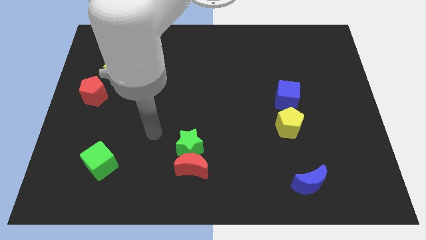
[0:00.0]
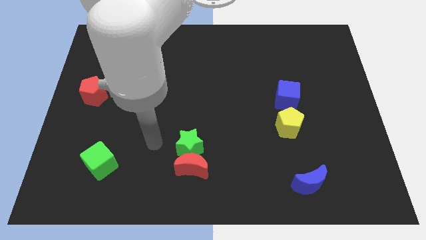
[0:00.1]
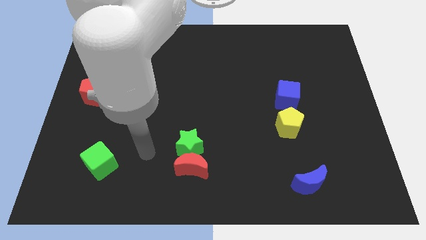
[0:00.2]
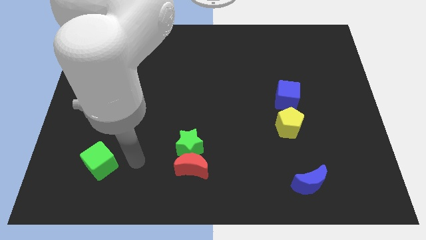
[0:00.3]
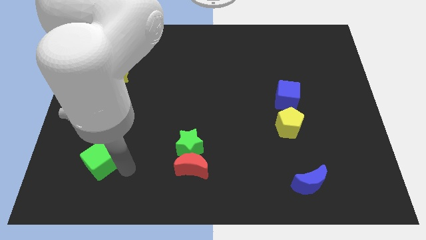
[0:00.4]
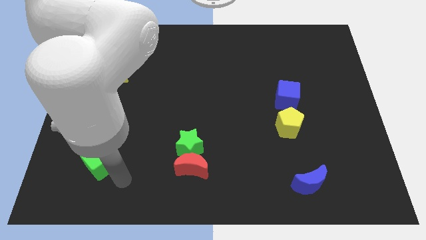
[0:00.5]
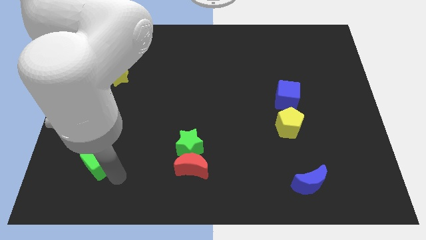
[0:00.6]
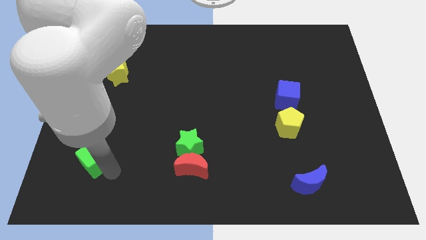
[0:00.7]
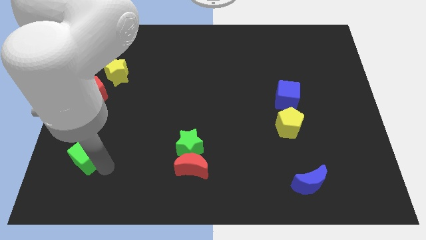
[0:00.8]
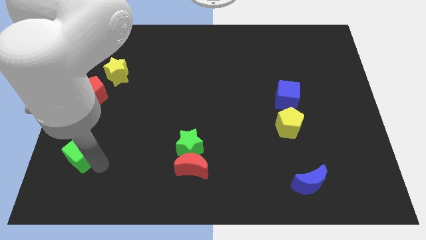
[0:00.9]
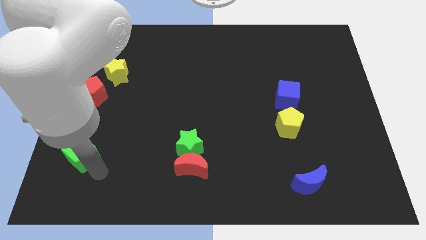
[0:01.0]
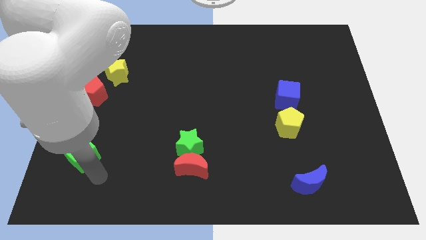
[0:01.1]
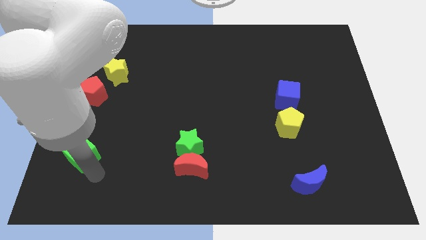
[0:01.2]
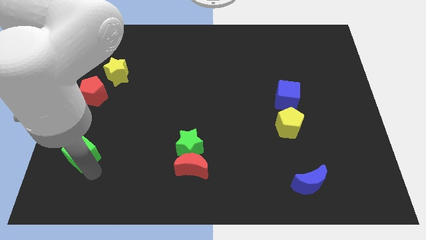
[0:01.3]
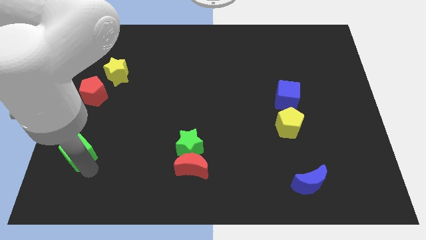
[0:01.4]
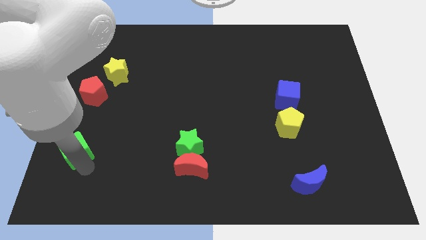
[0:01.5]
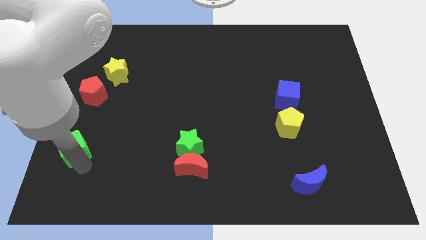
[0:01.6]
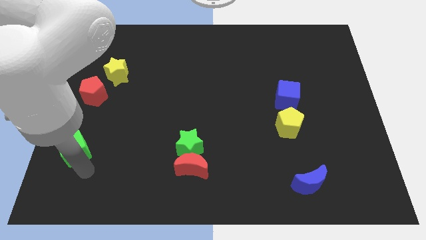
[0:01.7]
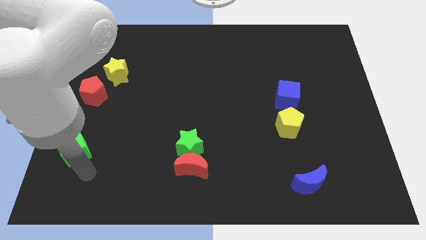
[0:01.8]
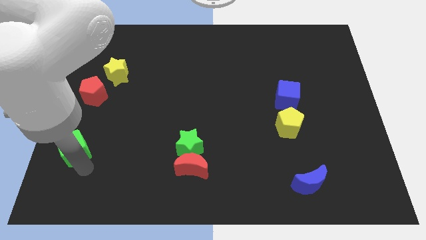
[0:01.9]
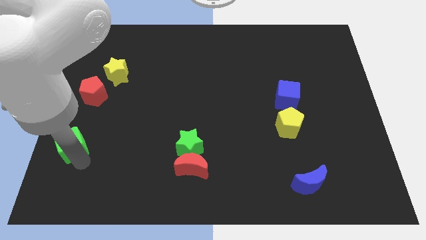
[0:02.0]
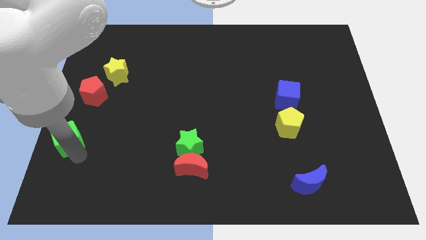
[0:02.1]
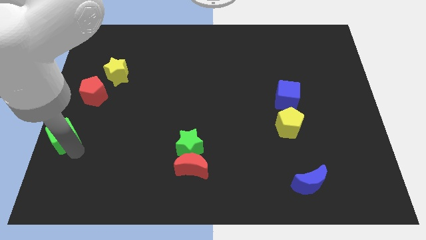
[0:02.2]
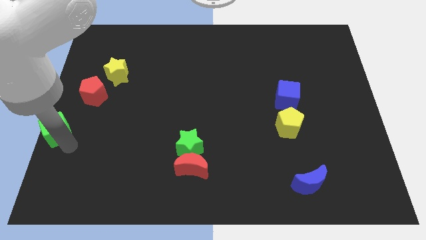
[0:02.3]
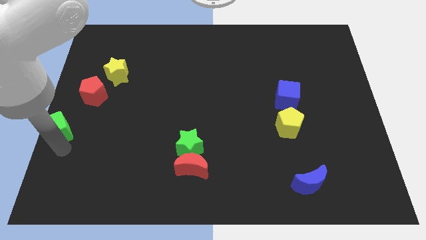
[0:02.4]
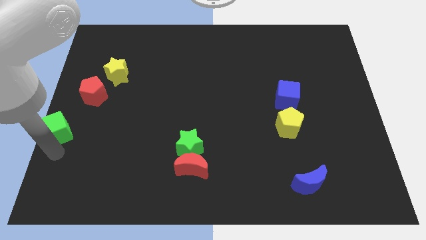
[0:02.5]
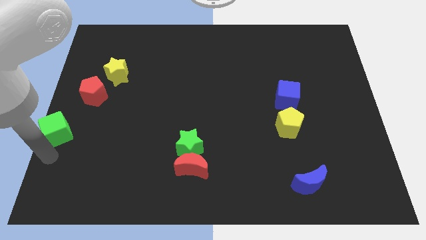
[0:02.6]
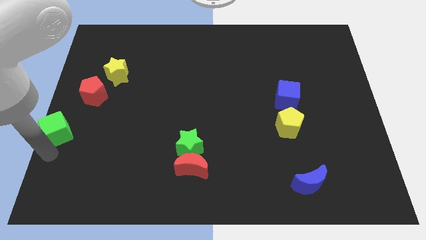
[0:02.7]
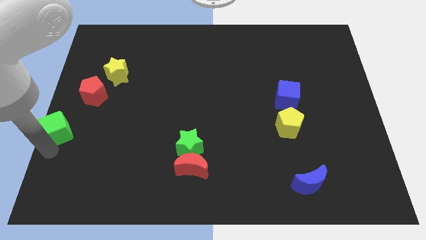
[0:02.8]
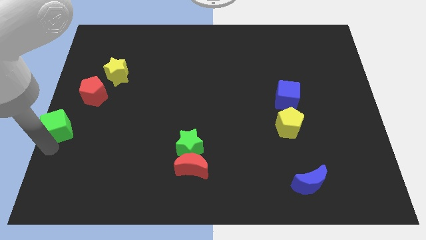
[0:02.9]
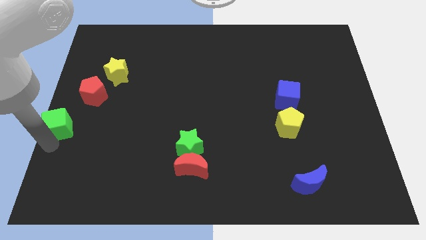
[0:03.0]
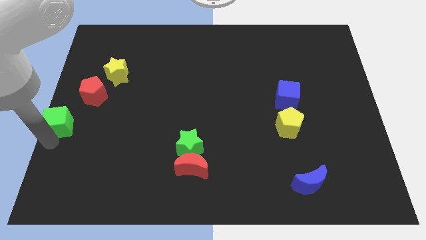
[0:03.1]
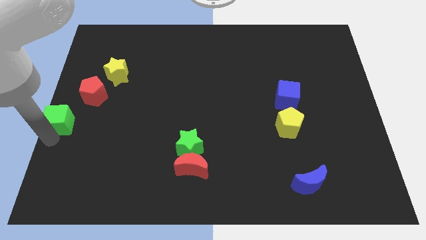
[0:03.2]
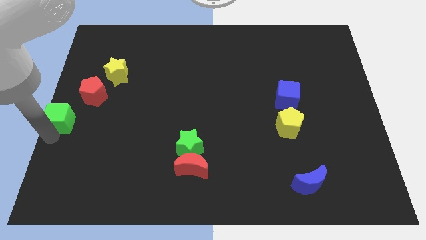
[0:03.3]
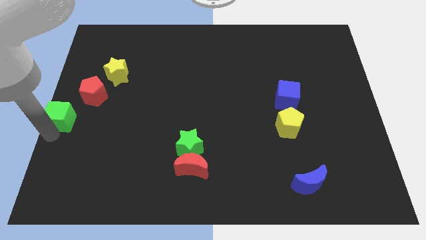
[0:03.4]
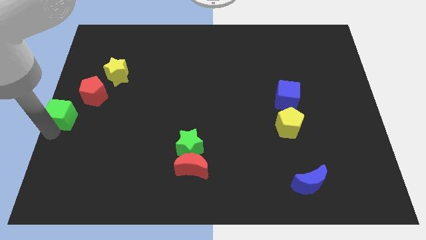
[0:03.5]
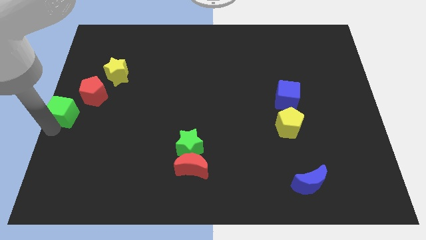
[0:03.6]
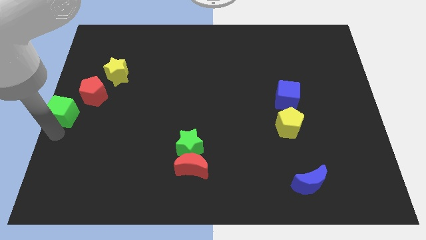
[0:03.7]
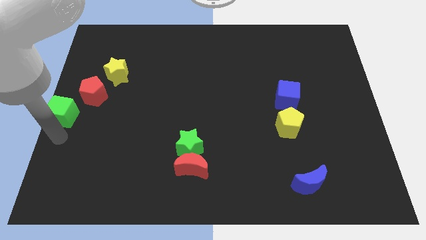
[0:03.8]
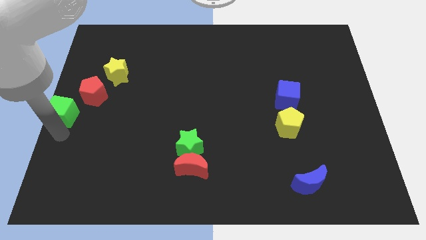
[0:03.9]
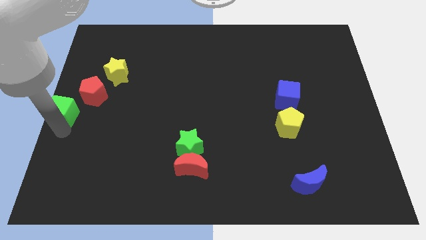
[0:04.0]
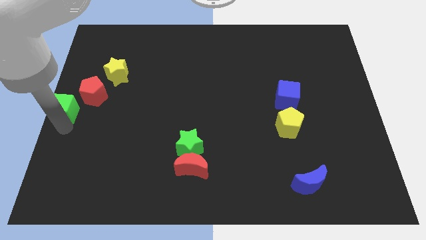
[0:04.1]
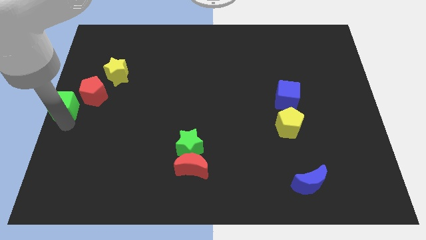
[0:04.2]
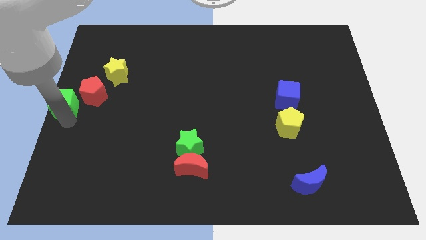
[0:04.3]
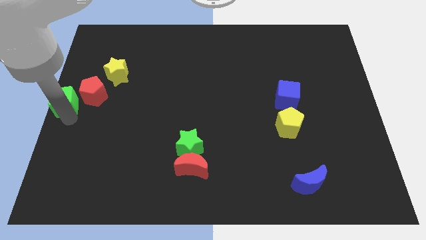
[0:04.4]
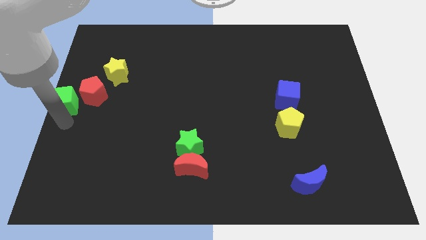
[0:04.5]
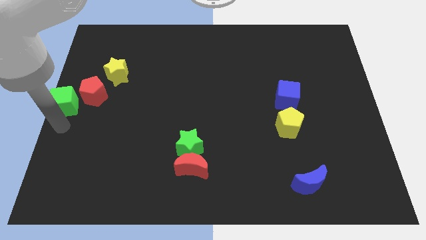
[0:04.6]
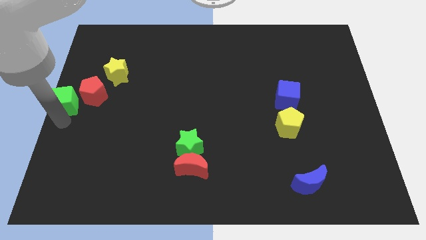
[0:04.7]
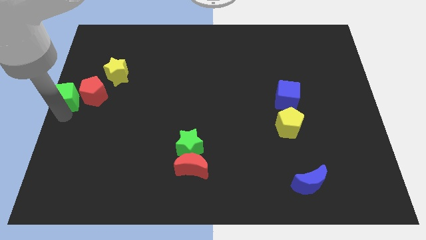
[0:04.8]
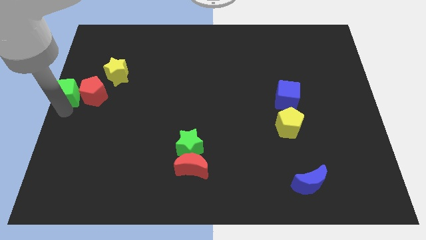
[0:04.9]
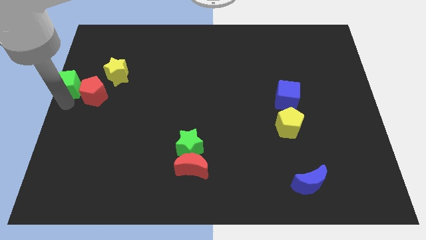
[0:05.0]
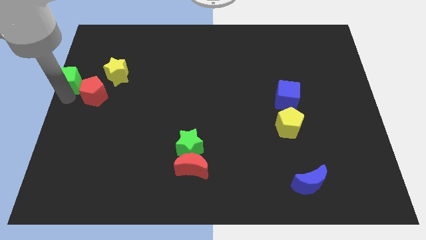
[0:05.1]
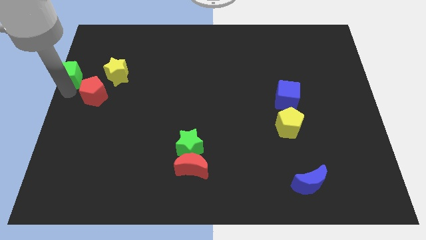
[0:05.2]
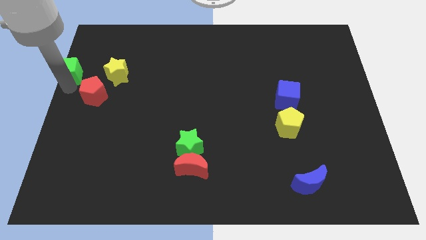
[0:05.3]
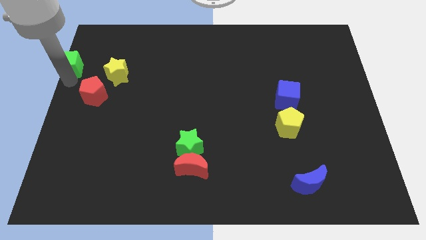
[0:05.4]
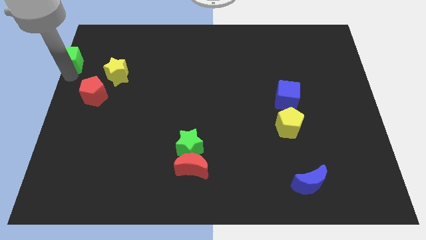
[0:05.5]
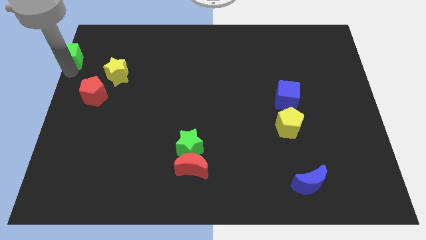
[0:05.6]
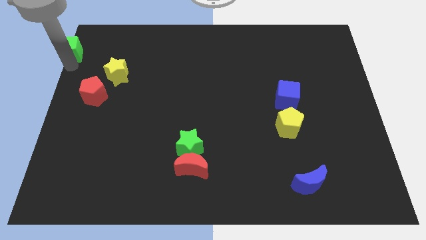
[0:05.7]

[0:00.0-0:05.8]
put the green cube to the top left of the board

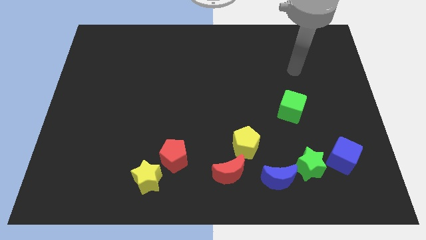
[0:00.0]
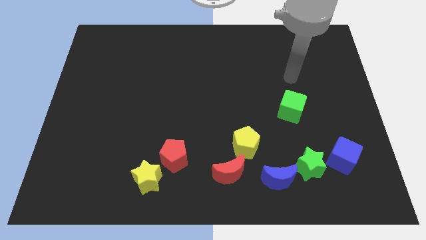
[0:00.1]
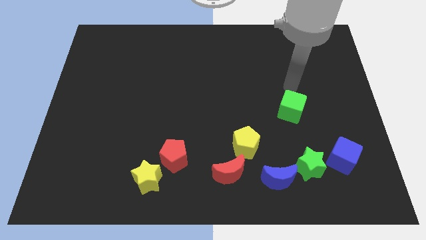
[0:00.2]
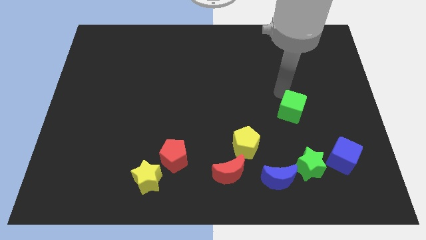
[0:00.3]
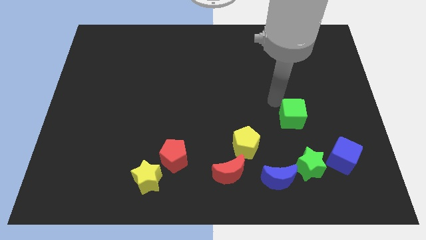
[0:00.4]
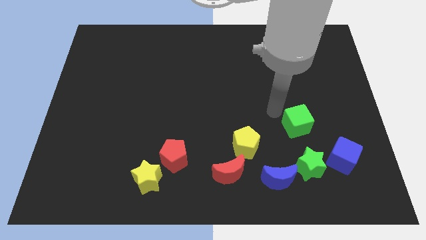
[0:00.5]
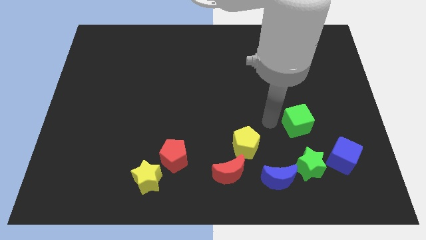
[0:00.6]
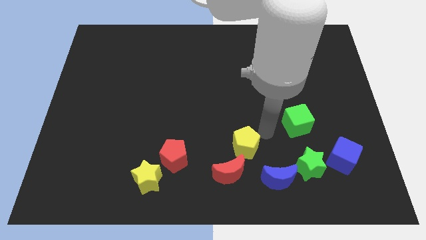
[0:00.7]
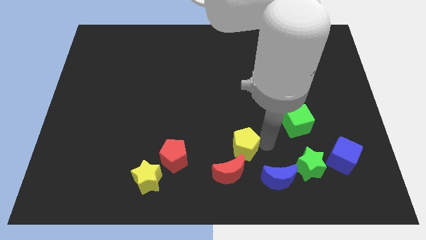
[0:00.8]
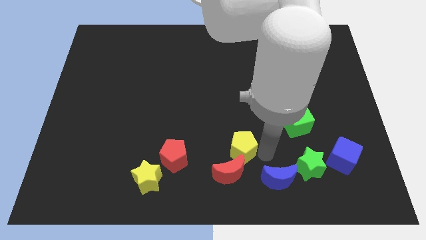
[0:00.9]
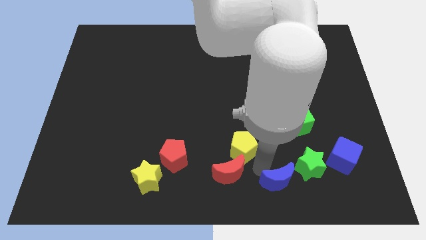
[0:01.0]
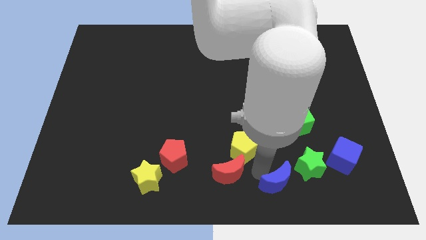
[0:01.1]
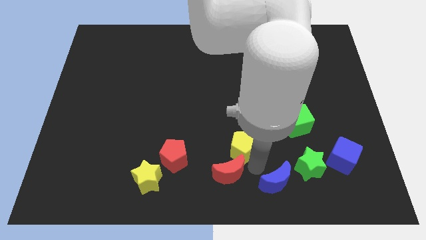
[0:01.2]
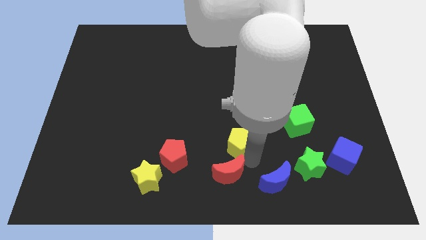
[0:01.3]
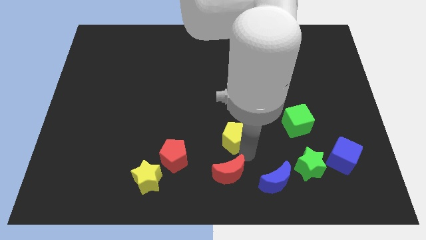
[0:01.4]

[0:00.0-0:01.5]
push the yellow pentagon to the middle of the board
